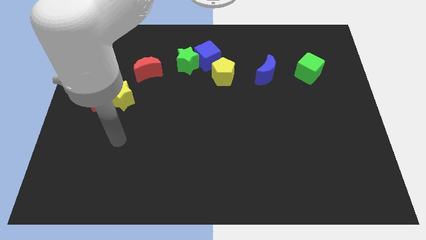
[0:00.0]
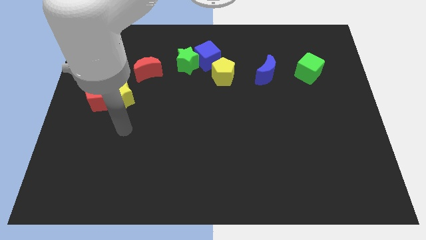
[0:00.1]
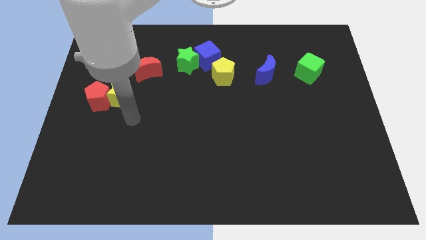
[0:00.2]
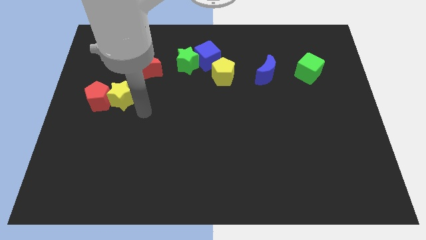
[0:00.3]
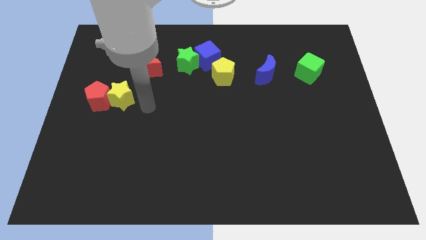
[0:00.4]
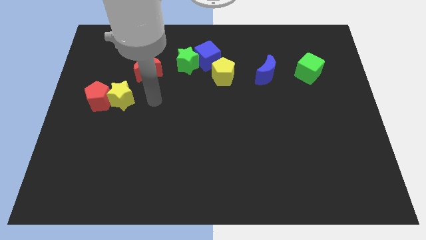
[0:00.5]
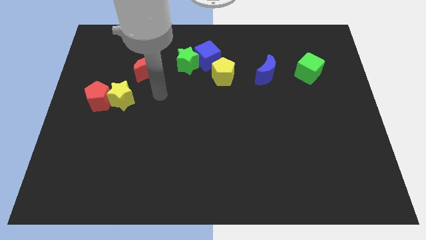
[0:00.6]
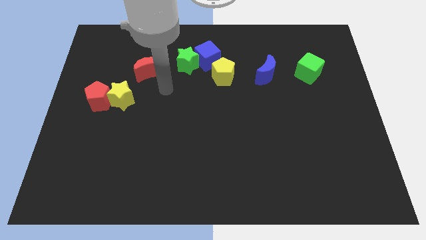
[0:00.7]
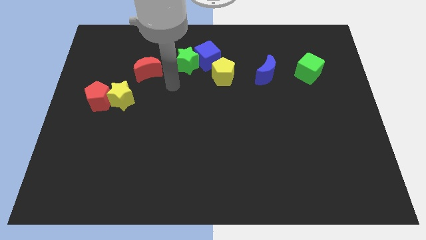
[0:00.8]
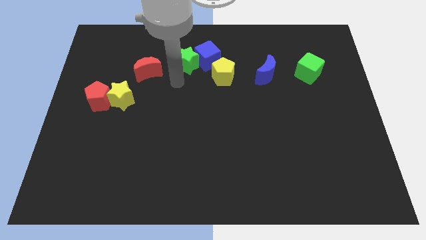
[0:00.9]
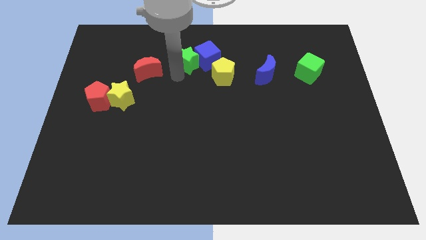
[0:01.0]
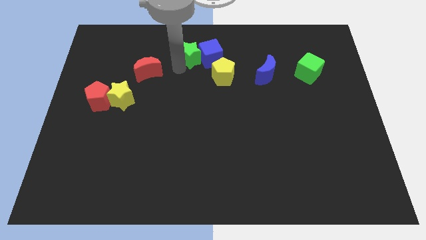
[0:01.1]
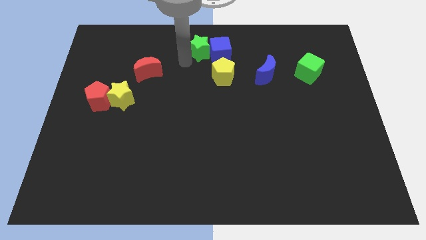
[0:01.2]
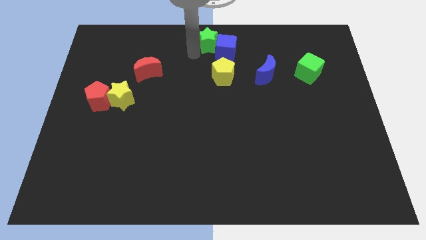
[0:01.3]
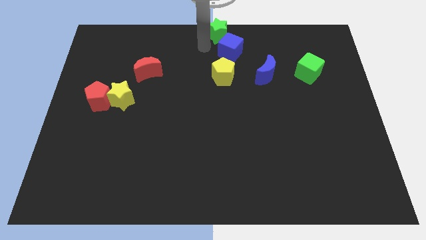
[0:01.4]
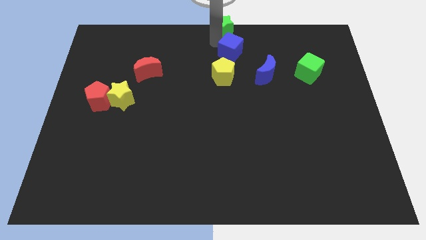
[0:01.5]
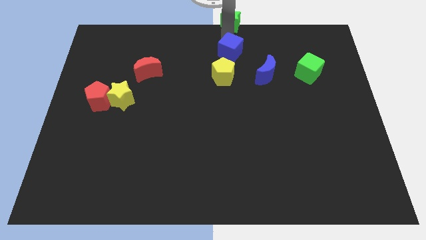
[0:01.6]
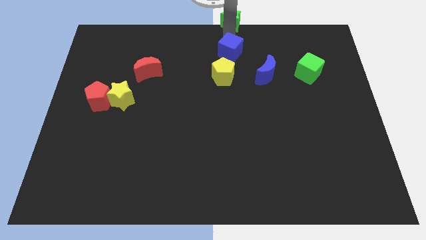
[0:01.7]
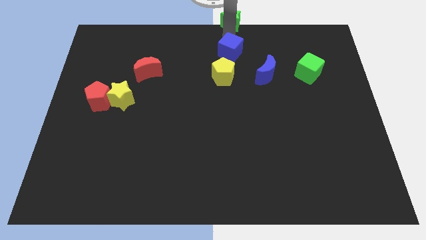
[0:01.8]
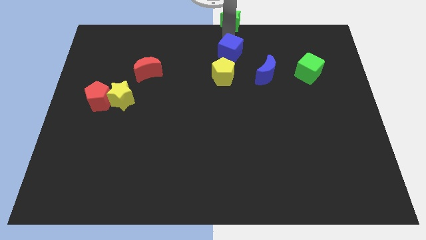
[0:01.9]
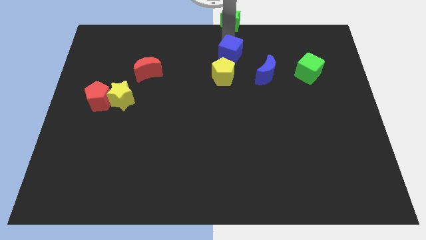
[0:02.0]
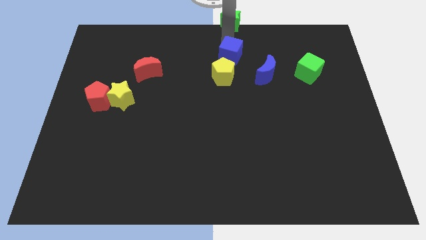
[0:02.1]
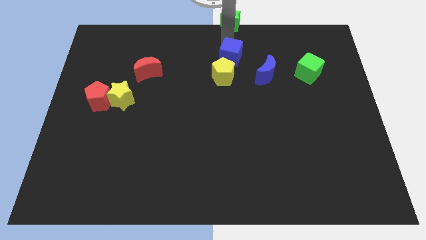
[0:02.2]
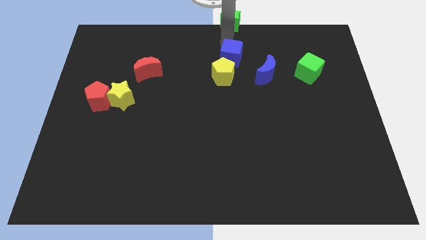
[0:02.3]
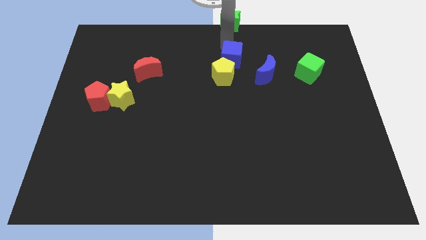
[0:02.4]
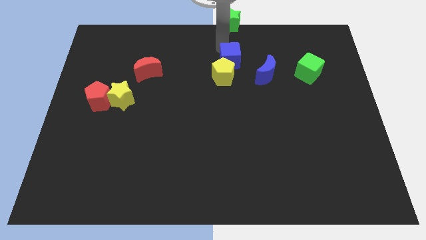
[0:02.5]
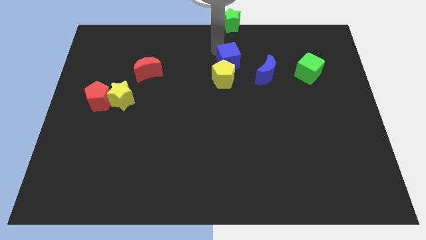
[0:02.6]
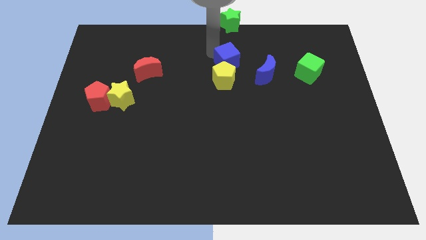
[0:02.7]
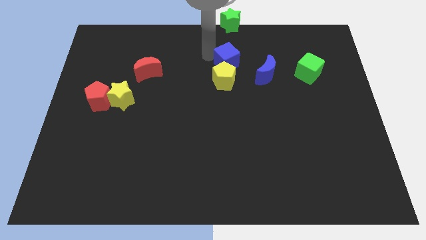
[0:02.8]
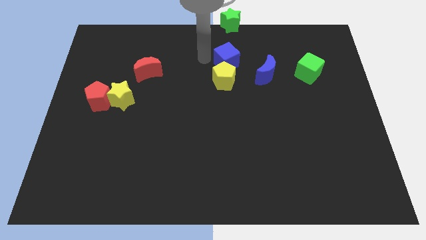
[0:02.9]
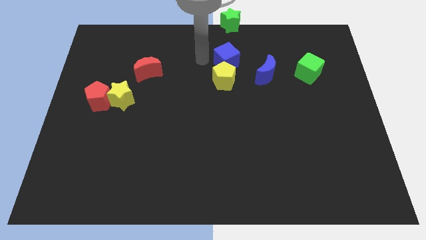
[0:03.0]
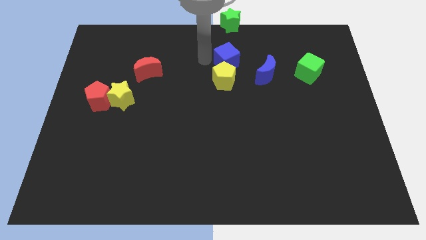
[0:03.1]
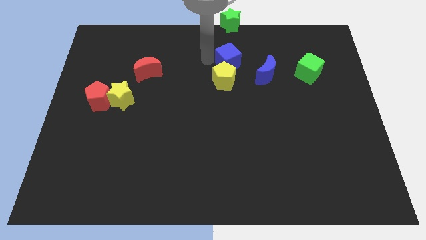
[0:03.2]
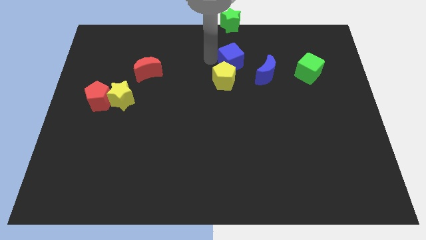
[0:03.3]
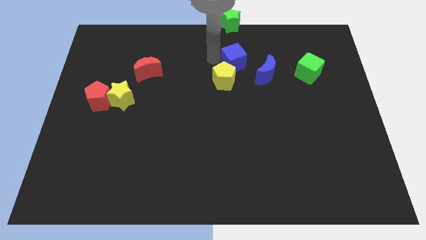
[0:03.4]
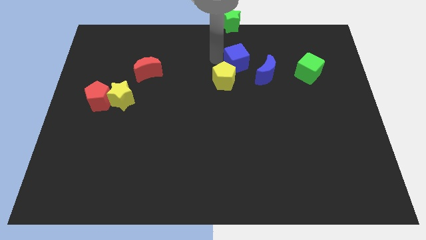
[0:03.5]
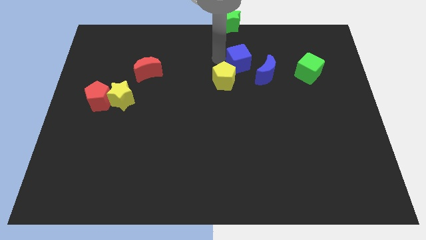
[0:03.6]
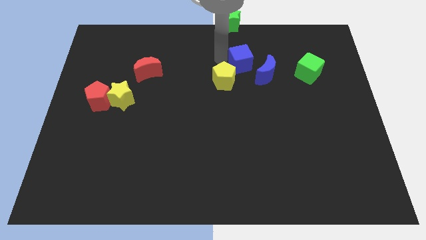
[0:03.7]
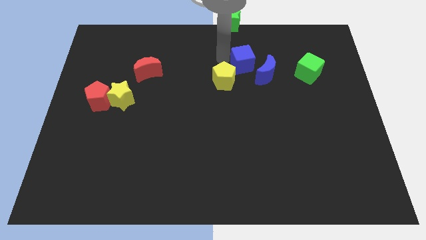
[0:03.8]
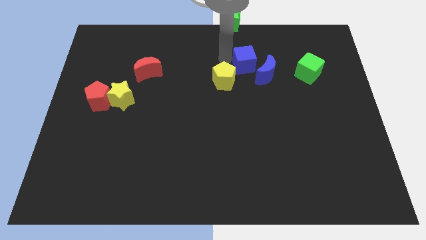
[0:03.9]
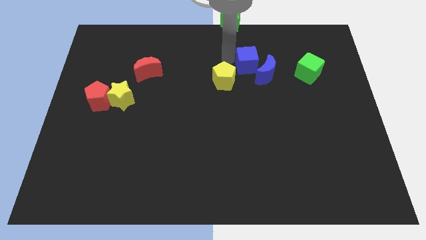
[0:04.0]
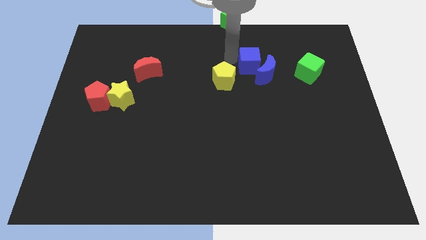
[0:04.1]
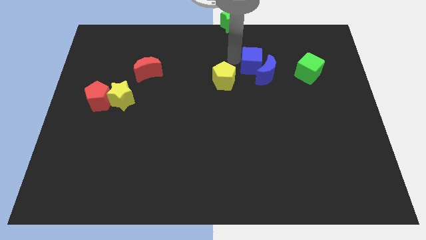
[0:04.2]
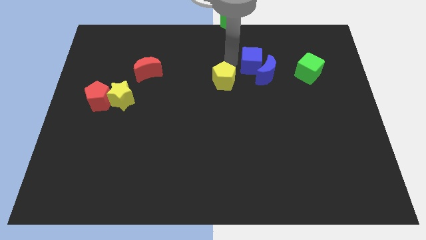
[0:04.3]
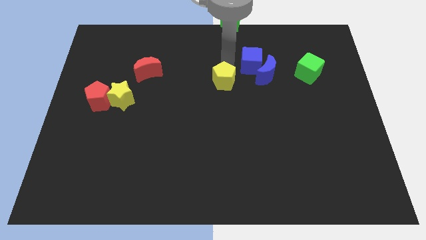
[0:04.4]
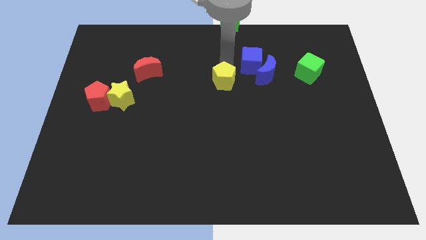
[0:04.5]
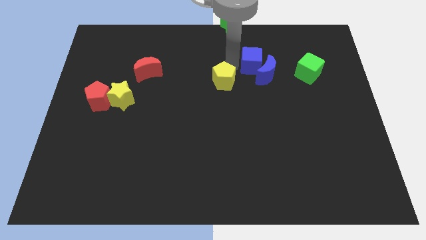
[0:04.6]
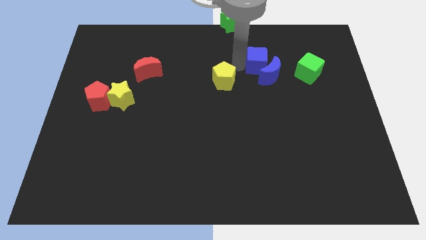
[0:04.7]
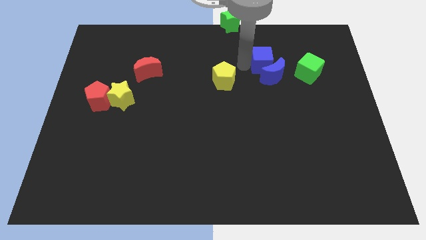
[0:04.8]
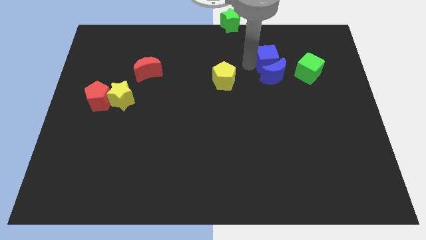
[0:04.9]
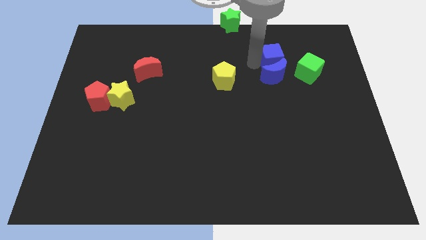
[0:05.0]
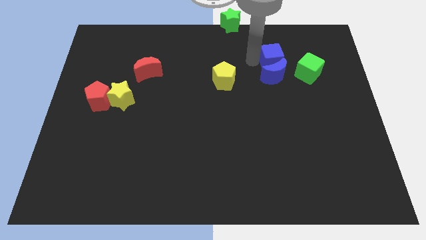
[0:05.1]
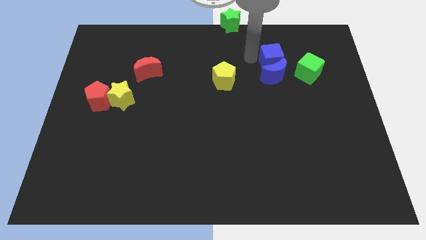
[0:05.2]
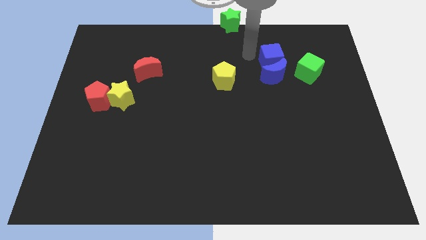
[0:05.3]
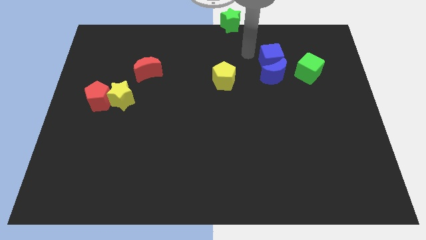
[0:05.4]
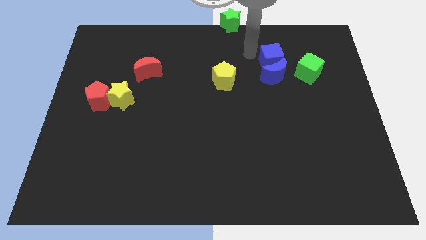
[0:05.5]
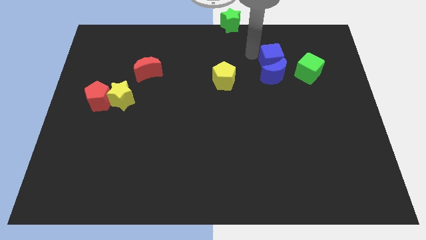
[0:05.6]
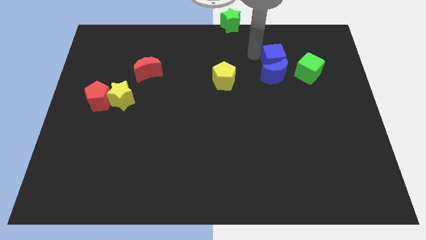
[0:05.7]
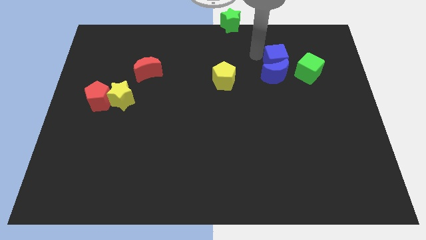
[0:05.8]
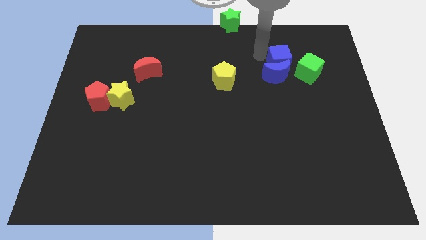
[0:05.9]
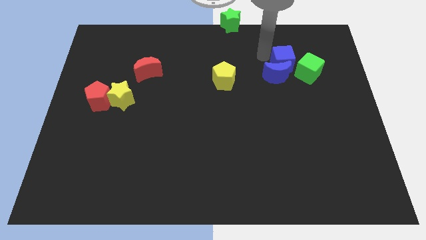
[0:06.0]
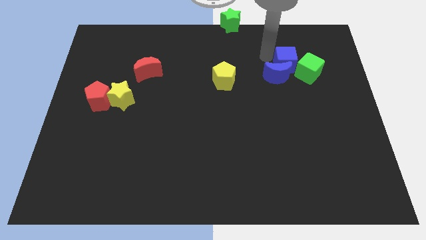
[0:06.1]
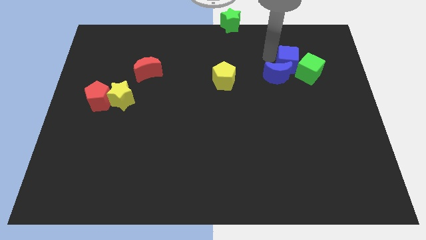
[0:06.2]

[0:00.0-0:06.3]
slide the blue cube to the green cube

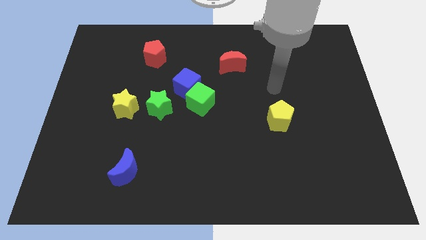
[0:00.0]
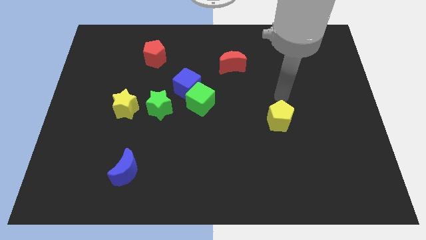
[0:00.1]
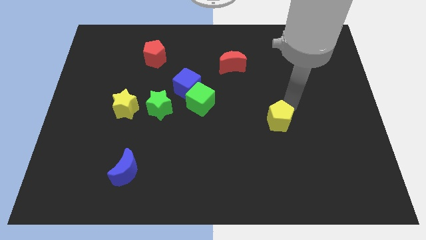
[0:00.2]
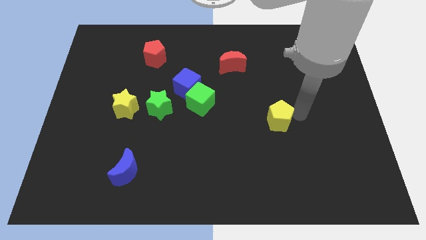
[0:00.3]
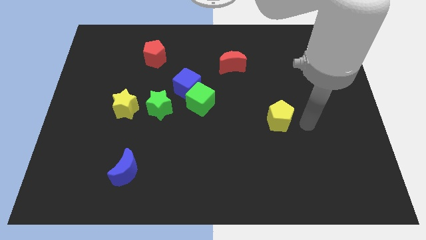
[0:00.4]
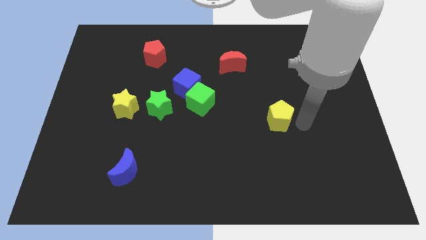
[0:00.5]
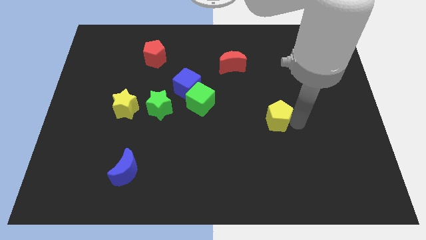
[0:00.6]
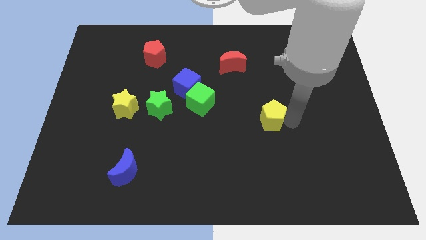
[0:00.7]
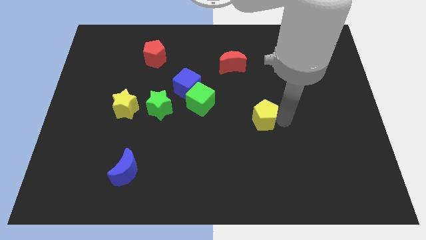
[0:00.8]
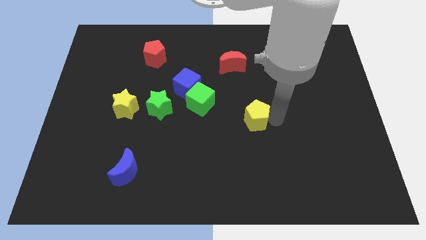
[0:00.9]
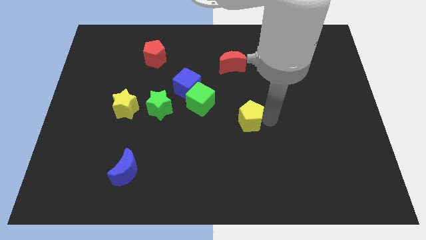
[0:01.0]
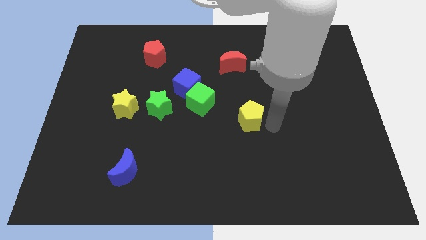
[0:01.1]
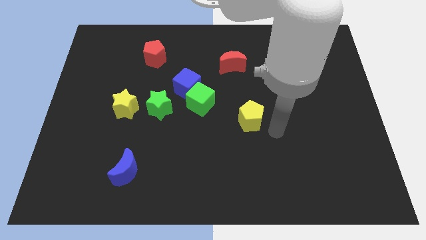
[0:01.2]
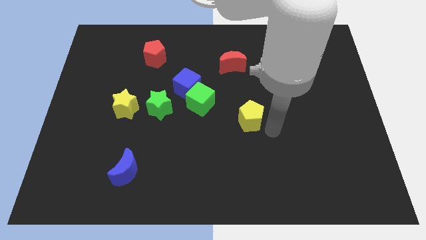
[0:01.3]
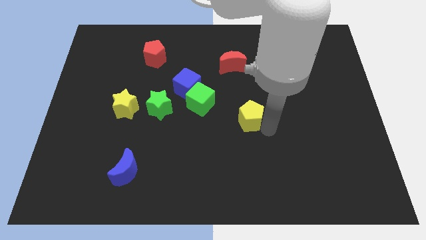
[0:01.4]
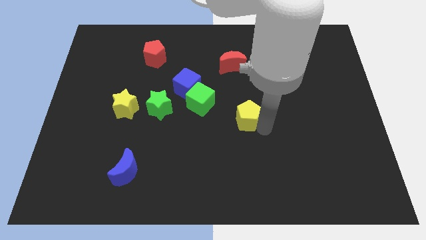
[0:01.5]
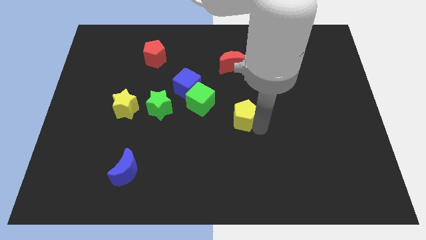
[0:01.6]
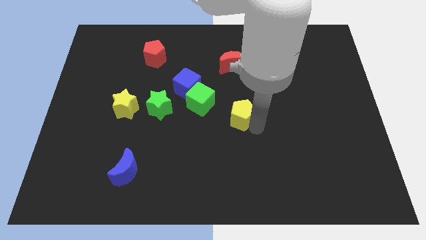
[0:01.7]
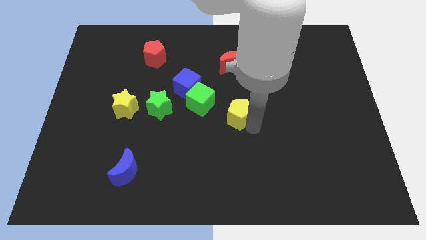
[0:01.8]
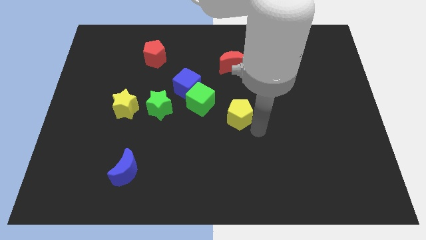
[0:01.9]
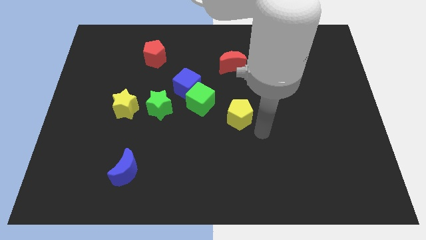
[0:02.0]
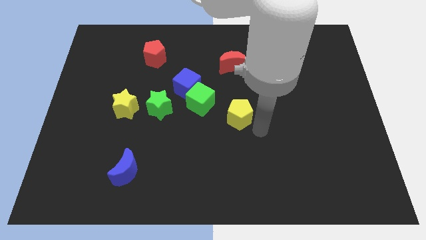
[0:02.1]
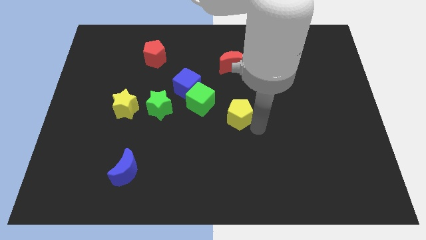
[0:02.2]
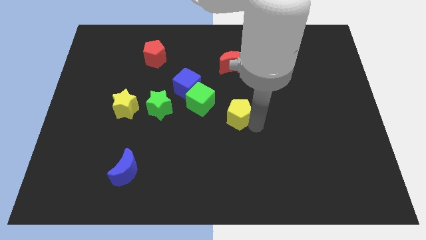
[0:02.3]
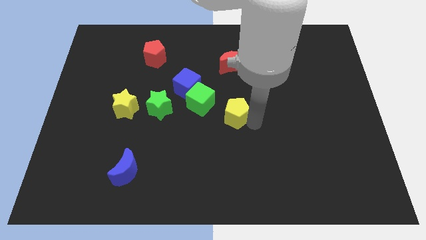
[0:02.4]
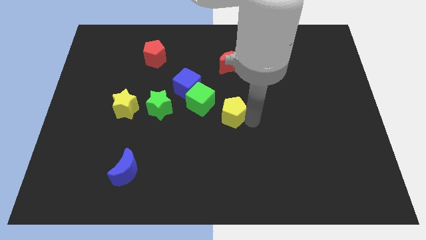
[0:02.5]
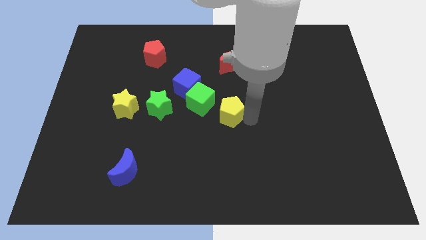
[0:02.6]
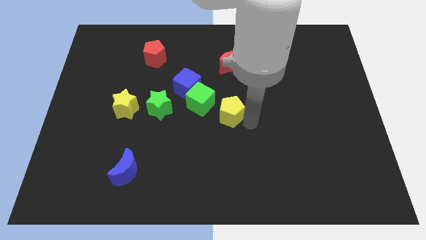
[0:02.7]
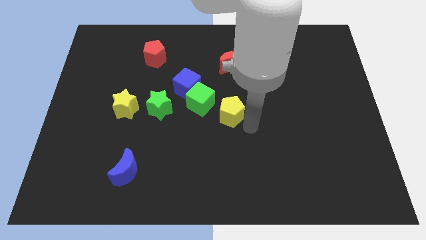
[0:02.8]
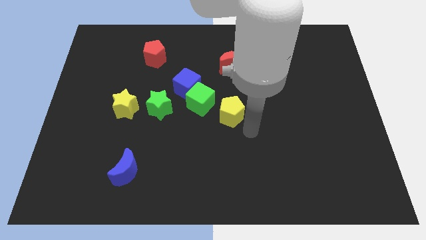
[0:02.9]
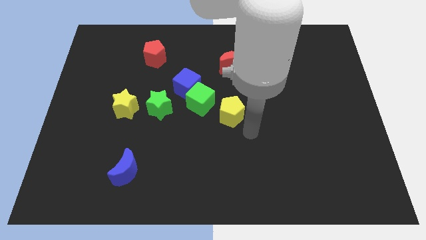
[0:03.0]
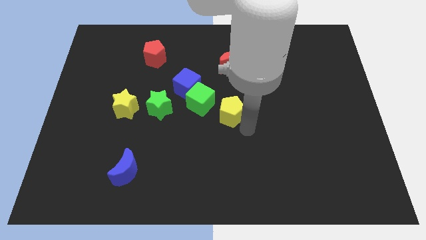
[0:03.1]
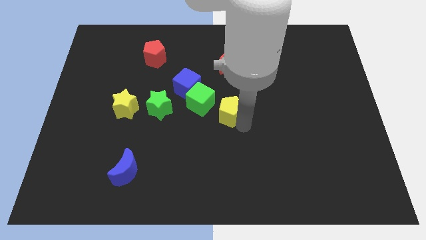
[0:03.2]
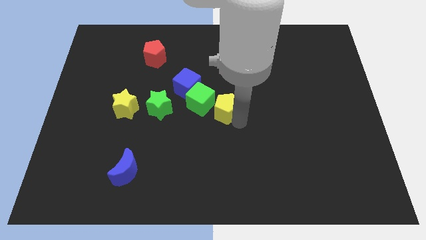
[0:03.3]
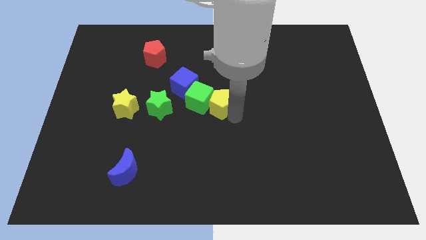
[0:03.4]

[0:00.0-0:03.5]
put the yellow pentagon next to the green cube
